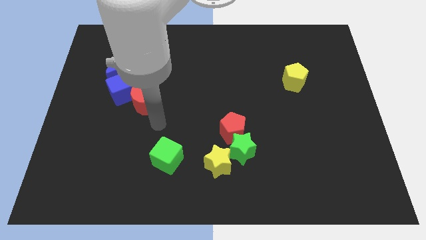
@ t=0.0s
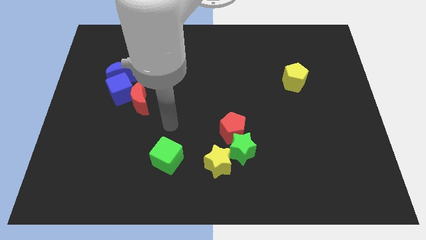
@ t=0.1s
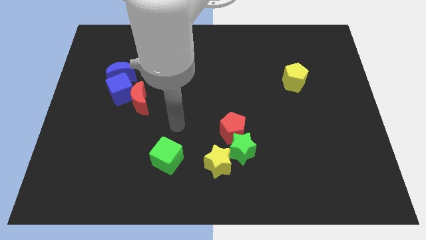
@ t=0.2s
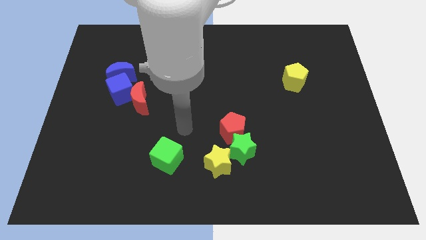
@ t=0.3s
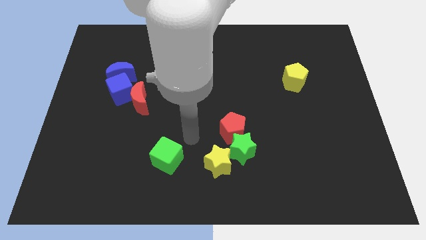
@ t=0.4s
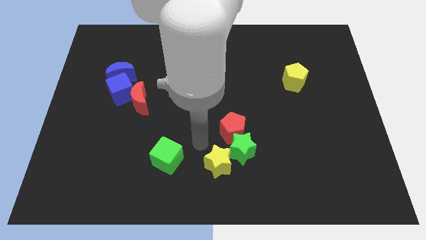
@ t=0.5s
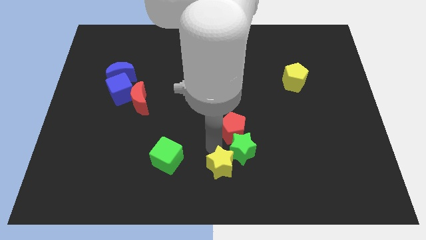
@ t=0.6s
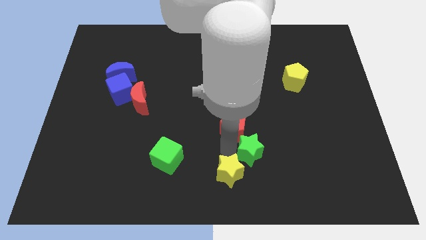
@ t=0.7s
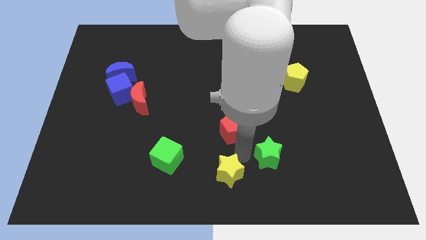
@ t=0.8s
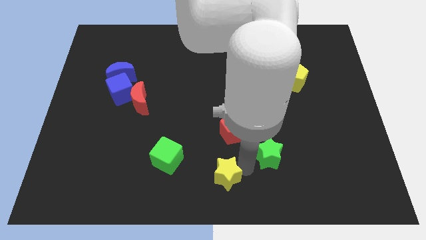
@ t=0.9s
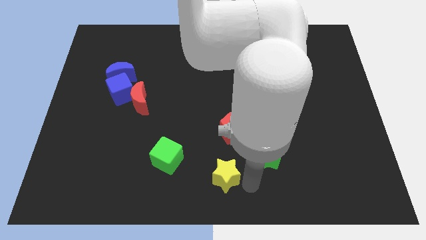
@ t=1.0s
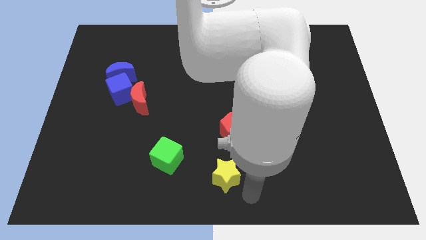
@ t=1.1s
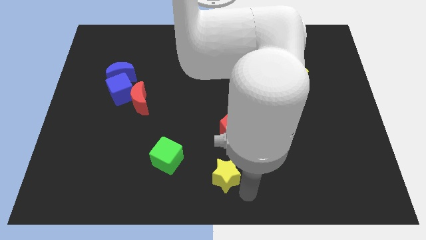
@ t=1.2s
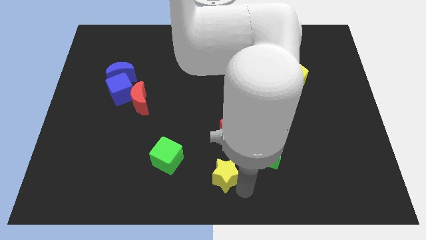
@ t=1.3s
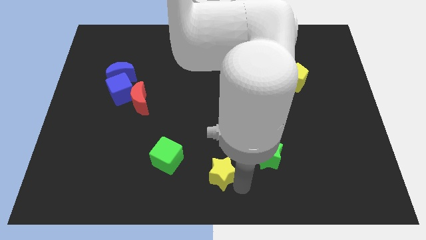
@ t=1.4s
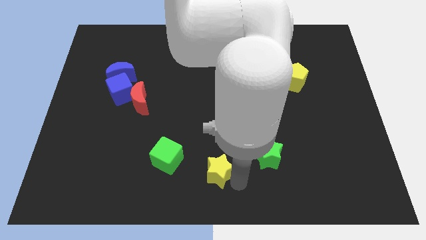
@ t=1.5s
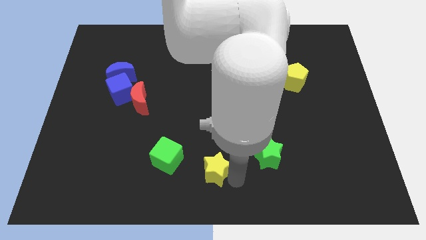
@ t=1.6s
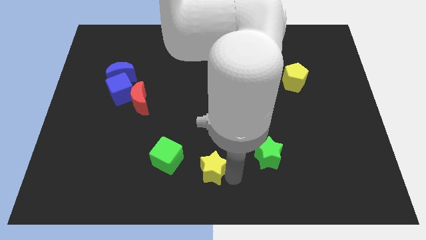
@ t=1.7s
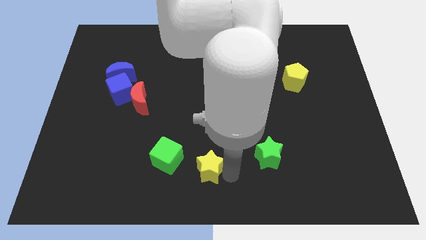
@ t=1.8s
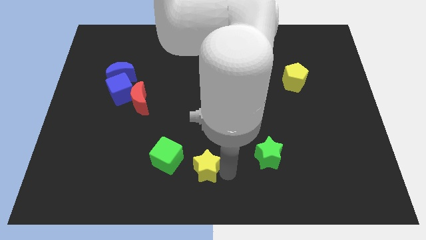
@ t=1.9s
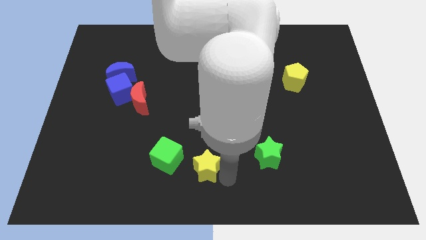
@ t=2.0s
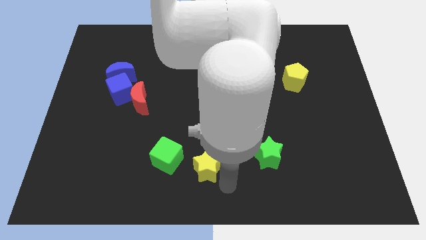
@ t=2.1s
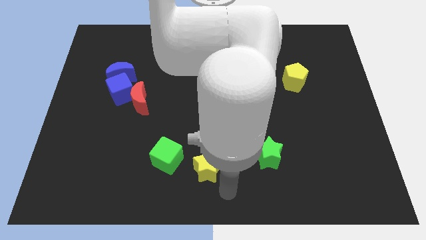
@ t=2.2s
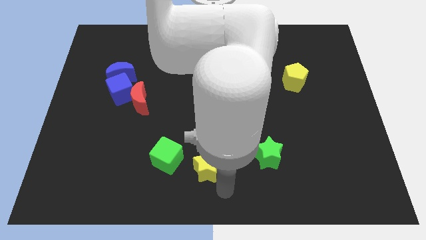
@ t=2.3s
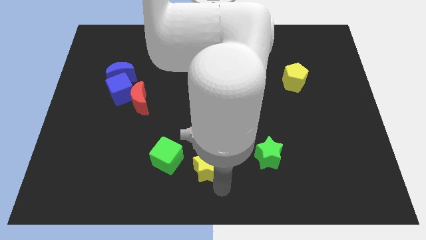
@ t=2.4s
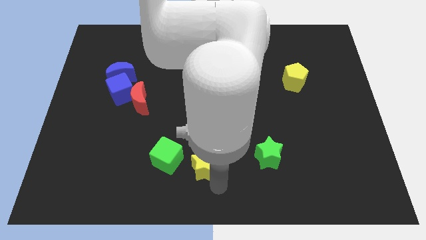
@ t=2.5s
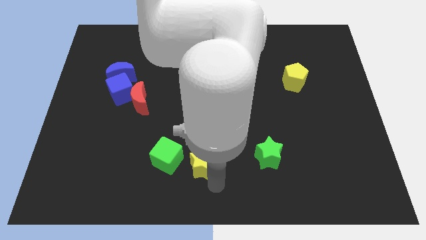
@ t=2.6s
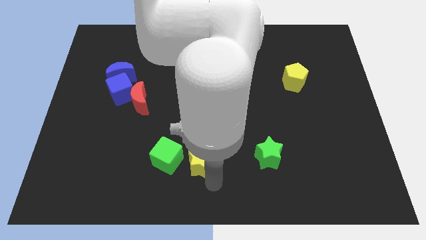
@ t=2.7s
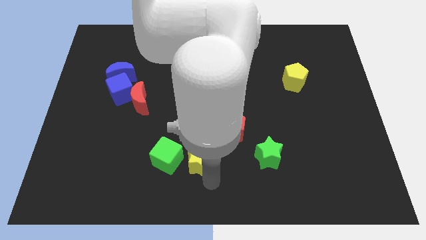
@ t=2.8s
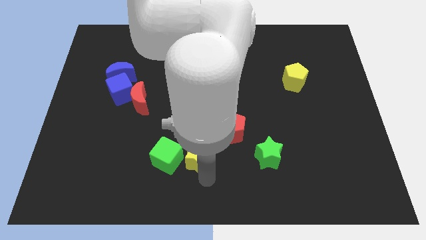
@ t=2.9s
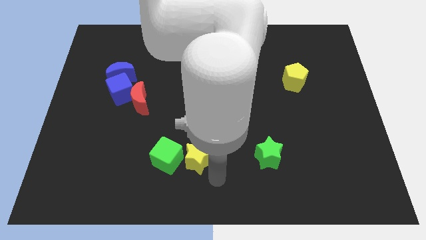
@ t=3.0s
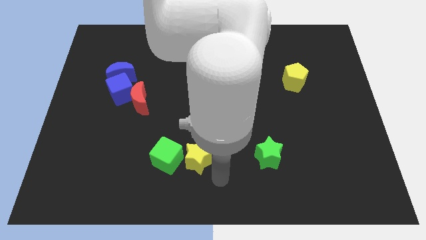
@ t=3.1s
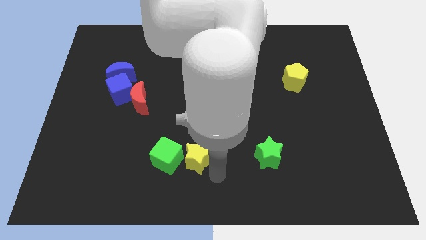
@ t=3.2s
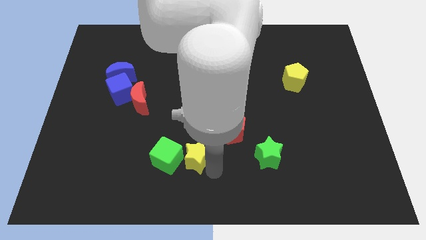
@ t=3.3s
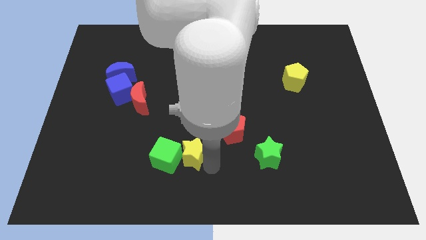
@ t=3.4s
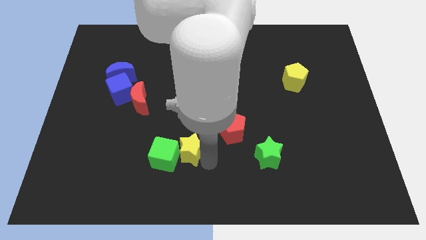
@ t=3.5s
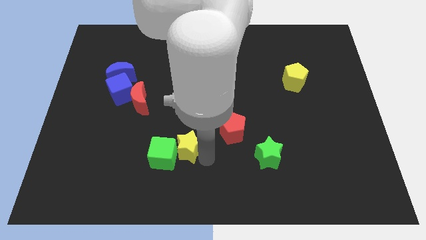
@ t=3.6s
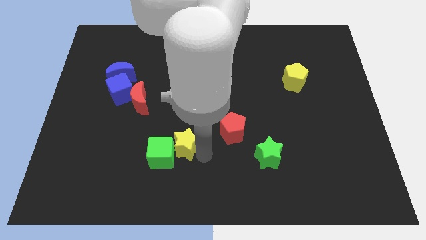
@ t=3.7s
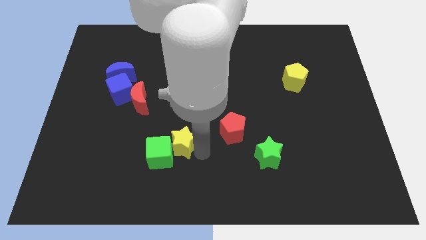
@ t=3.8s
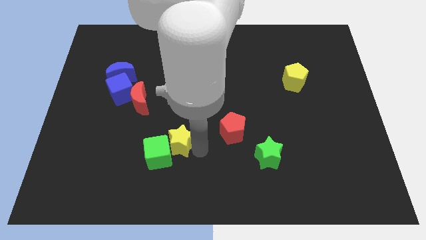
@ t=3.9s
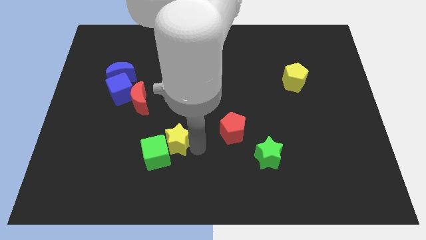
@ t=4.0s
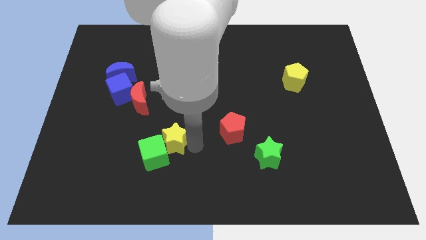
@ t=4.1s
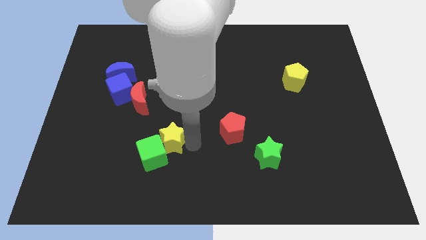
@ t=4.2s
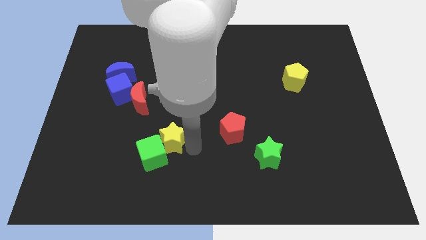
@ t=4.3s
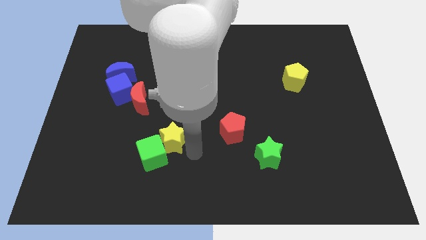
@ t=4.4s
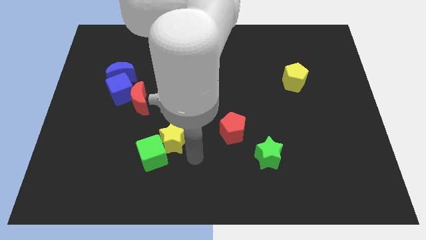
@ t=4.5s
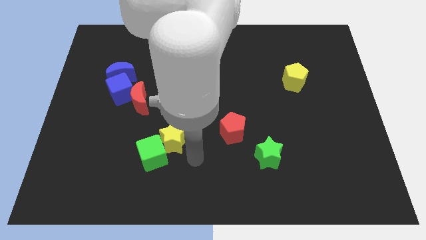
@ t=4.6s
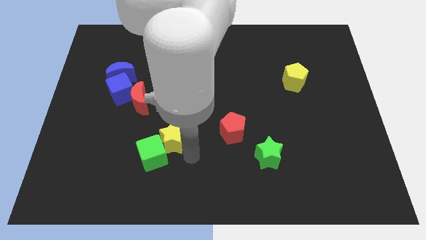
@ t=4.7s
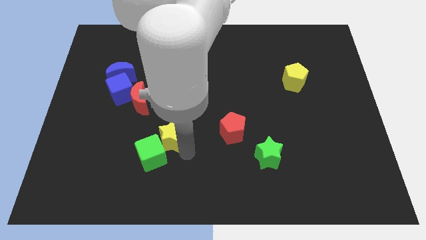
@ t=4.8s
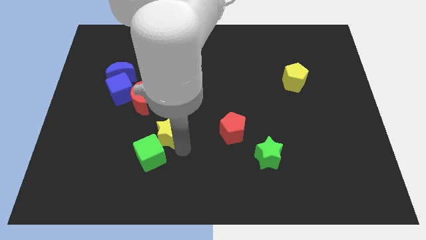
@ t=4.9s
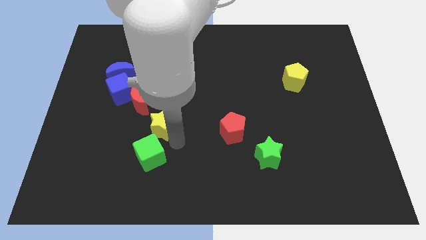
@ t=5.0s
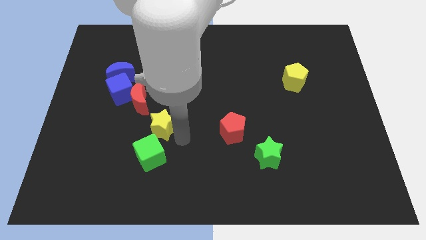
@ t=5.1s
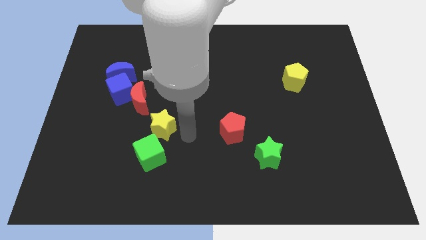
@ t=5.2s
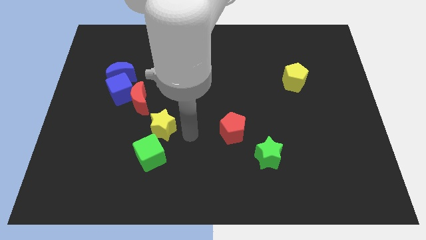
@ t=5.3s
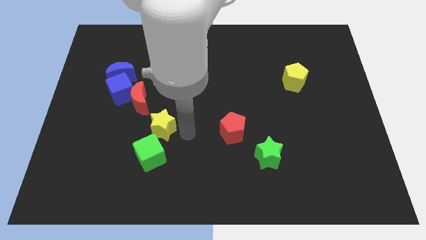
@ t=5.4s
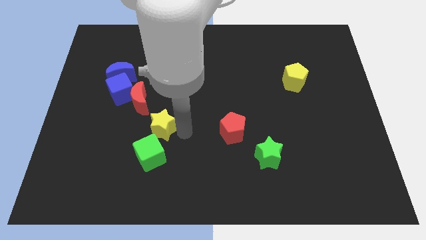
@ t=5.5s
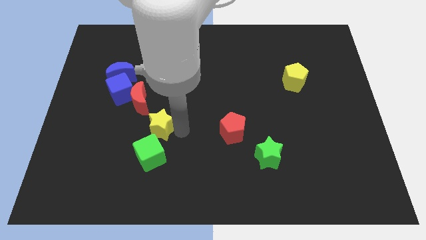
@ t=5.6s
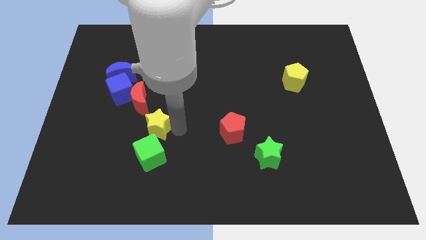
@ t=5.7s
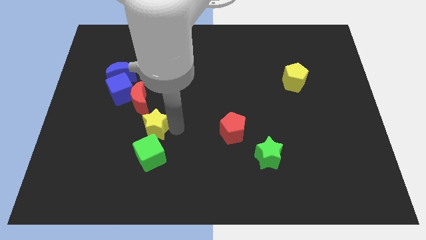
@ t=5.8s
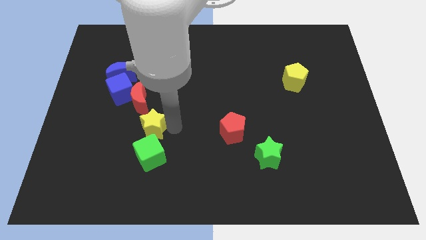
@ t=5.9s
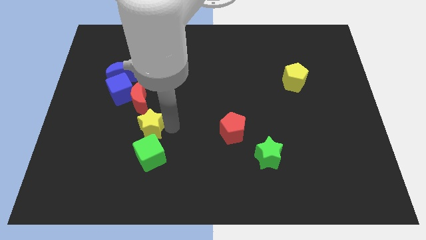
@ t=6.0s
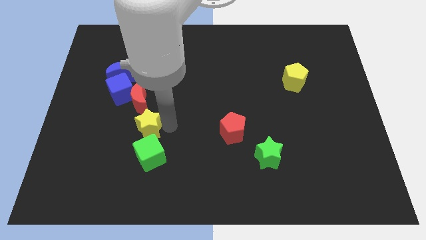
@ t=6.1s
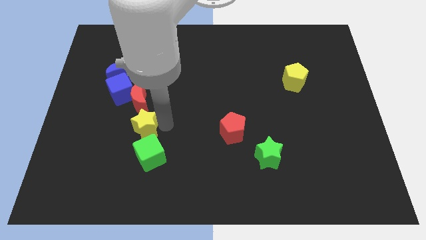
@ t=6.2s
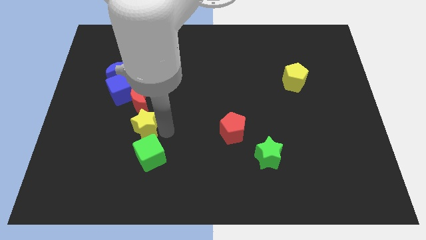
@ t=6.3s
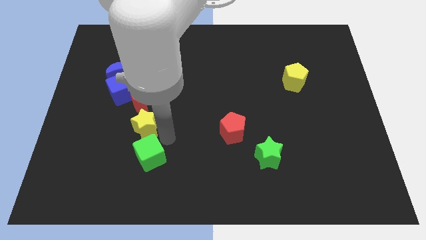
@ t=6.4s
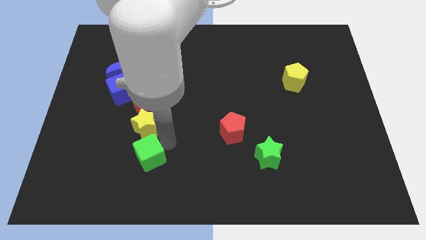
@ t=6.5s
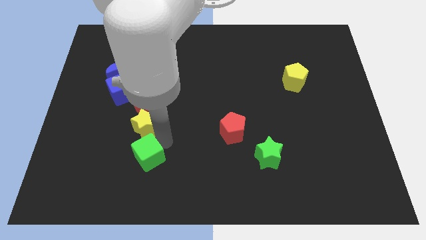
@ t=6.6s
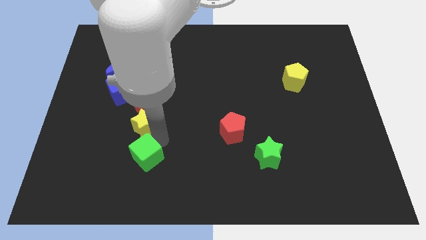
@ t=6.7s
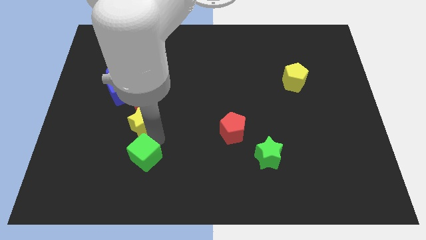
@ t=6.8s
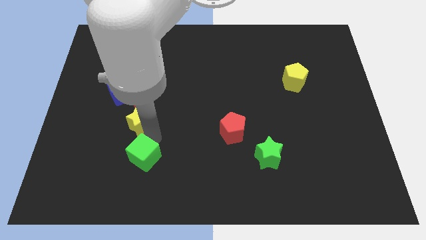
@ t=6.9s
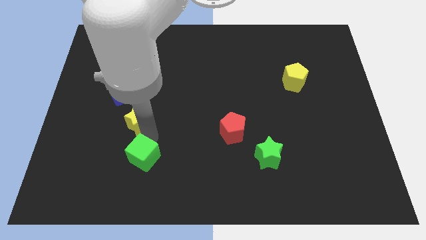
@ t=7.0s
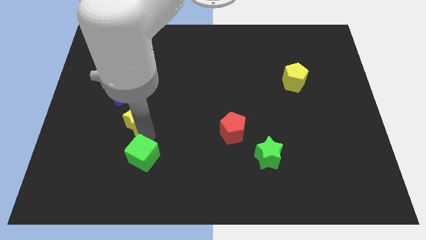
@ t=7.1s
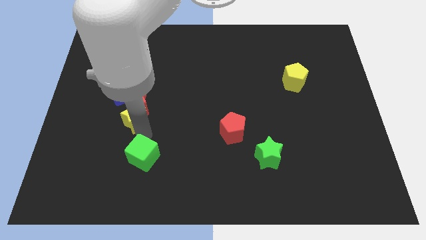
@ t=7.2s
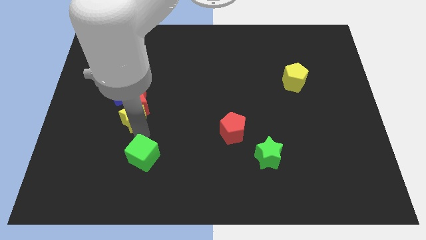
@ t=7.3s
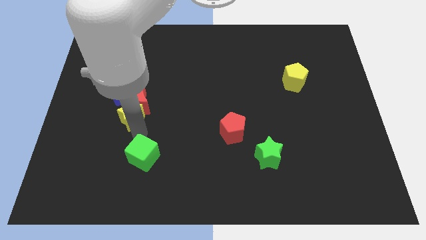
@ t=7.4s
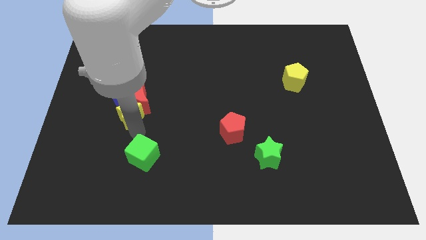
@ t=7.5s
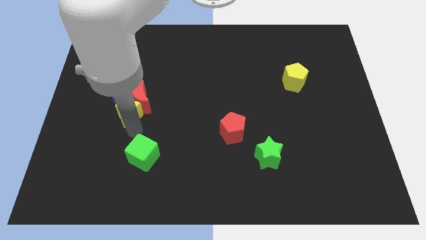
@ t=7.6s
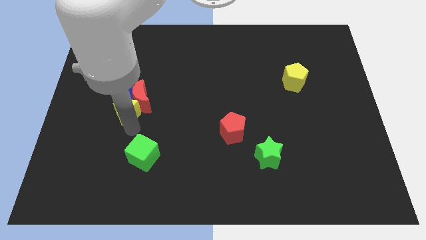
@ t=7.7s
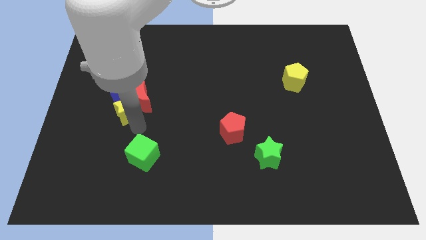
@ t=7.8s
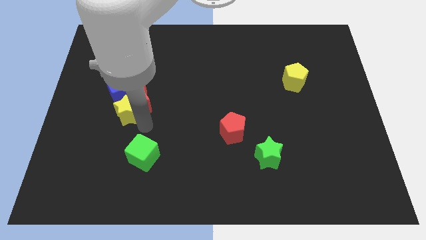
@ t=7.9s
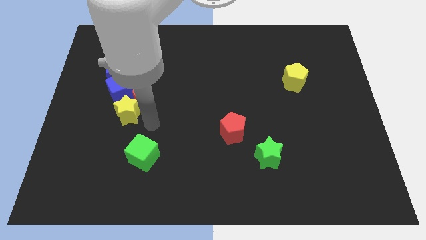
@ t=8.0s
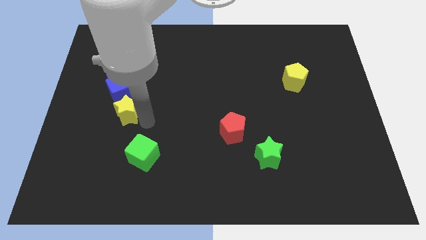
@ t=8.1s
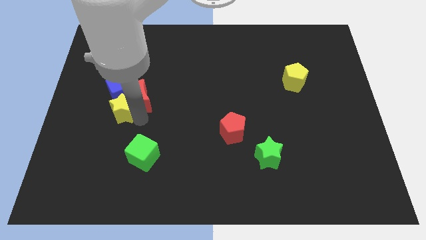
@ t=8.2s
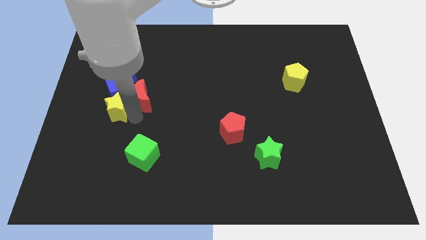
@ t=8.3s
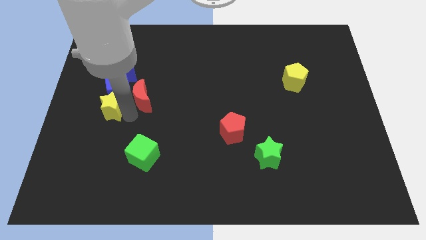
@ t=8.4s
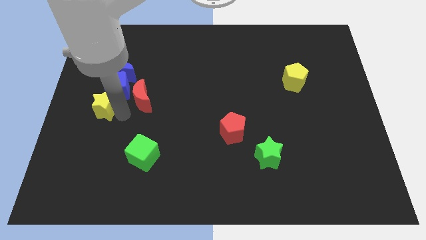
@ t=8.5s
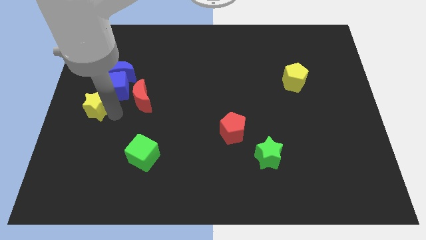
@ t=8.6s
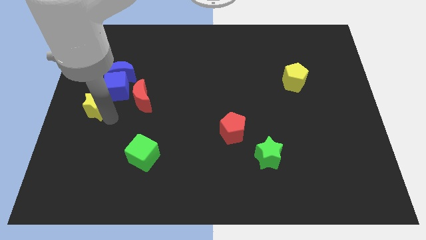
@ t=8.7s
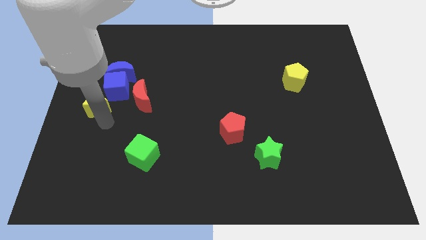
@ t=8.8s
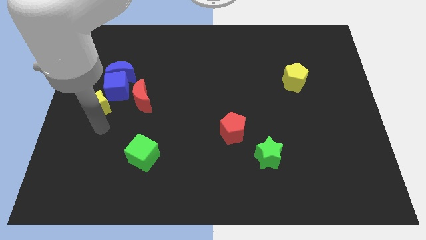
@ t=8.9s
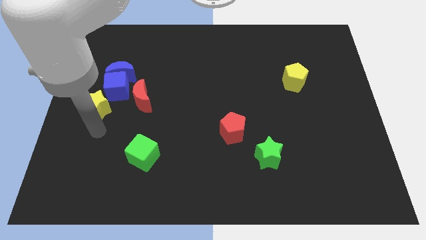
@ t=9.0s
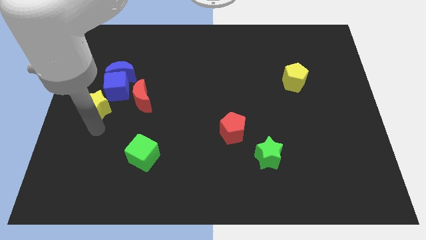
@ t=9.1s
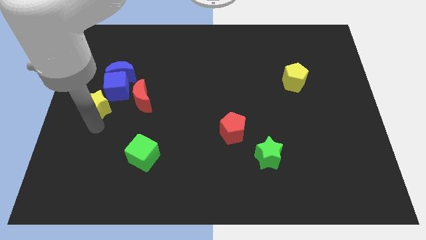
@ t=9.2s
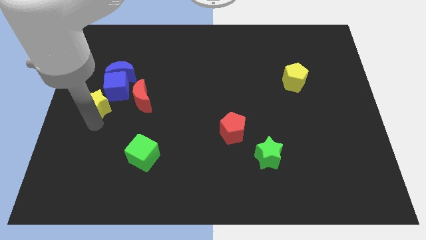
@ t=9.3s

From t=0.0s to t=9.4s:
push the yellow star to the bottom left of the blue moon
